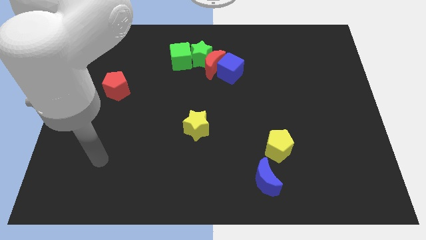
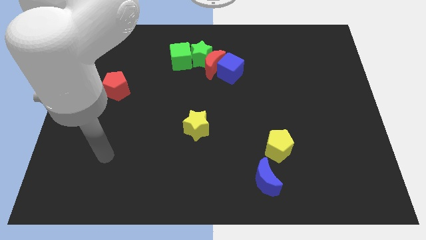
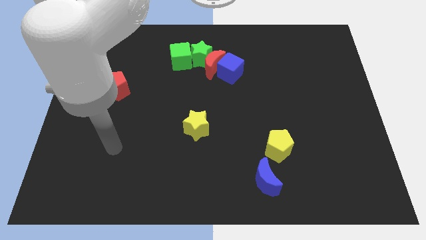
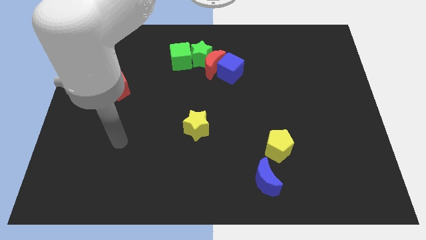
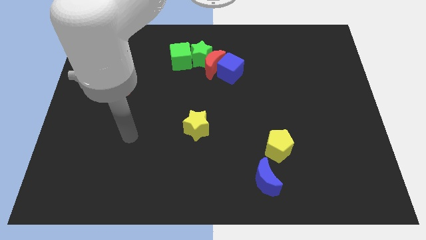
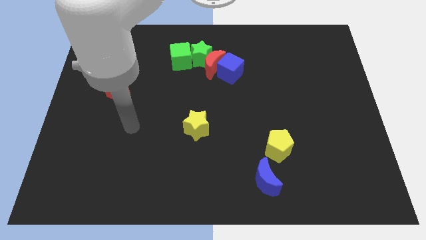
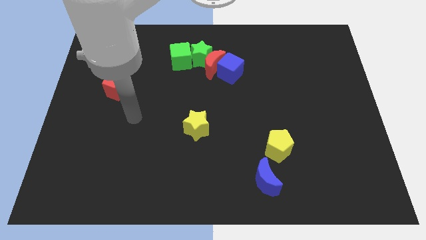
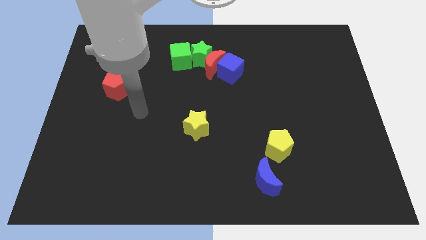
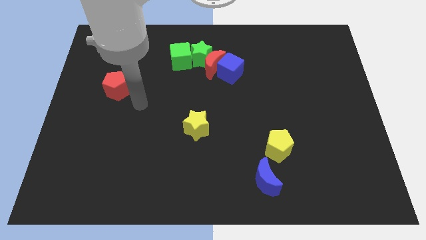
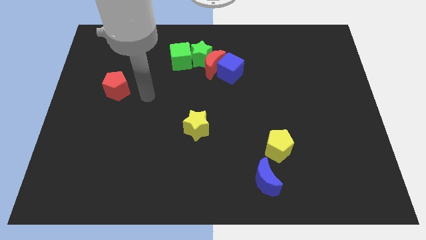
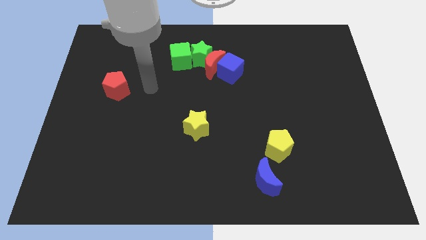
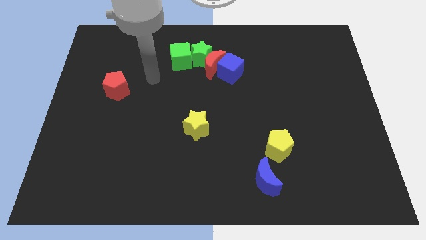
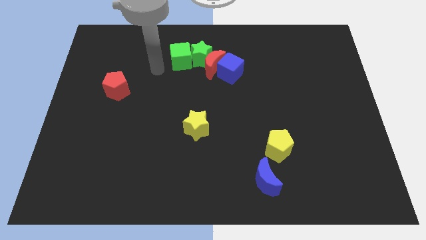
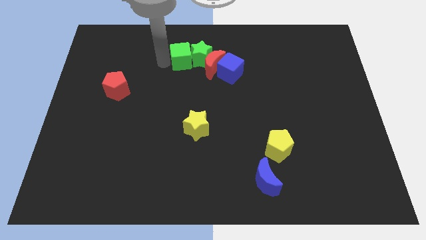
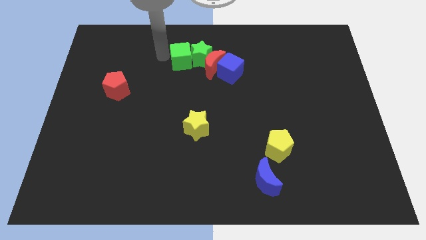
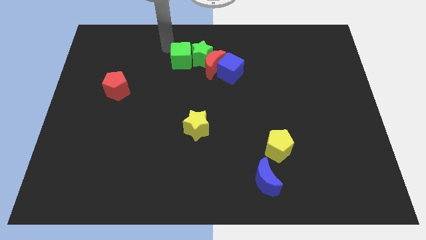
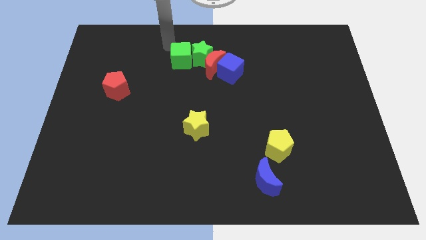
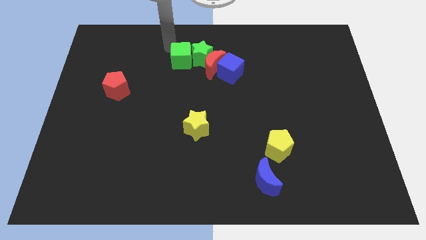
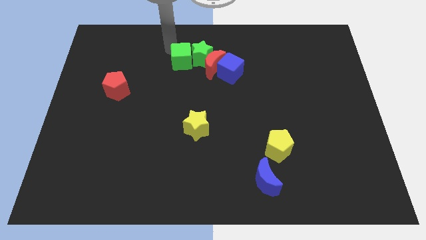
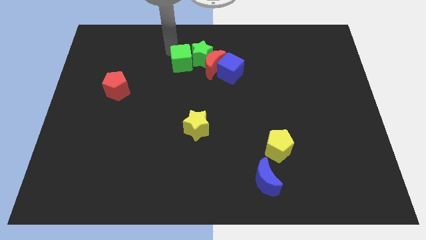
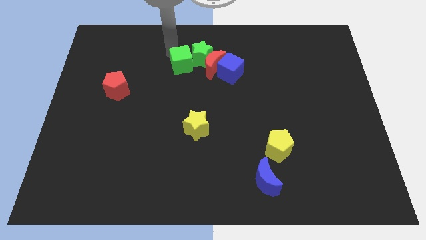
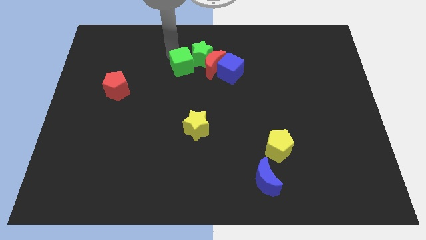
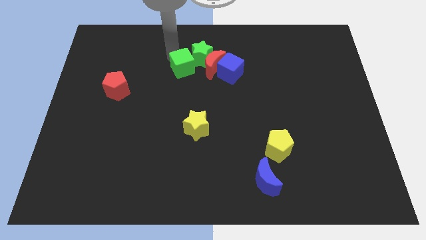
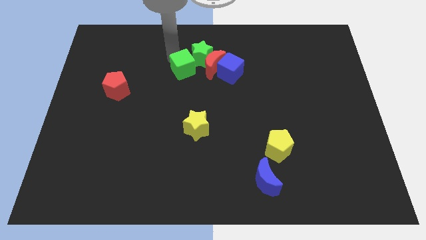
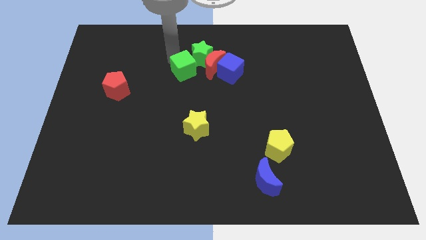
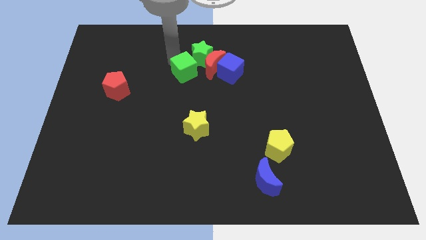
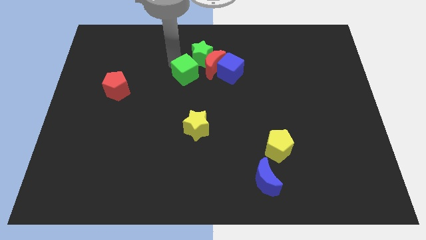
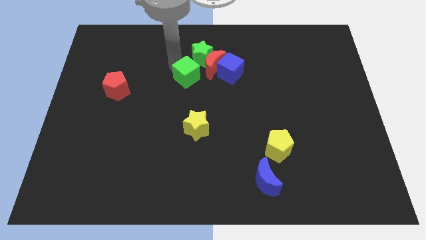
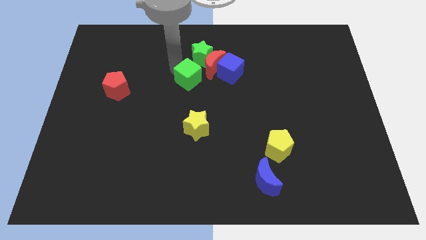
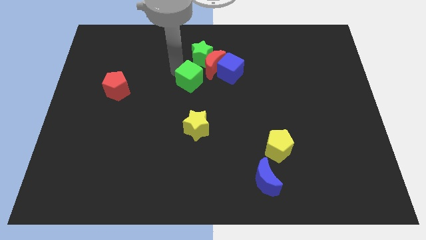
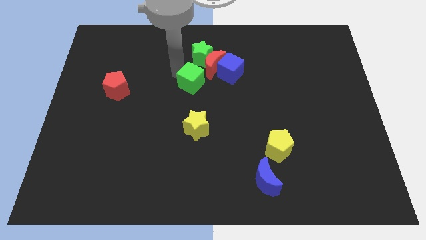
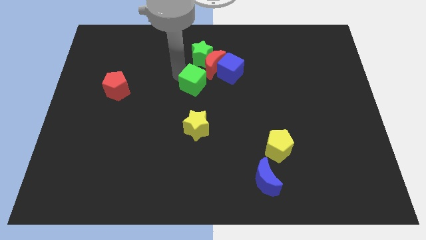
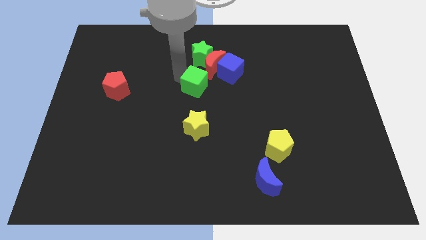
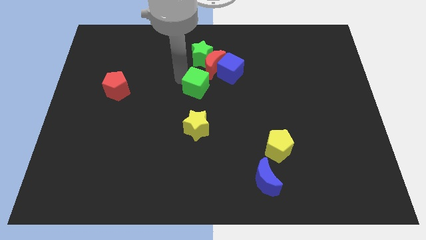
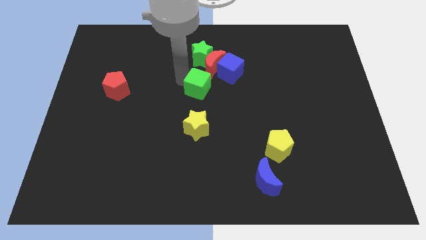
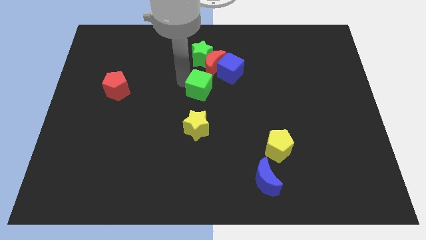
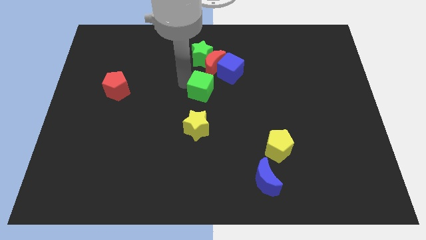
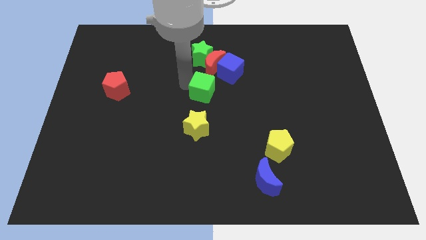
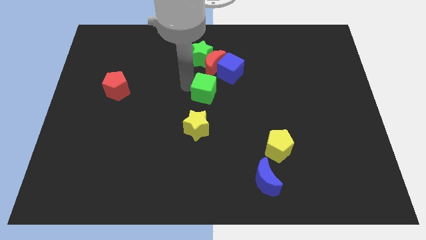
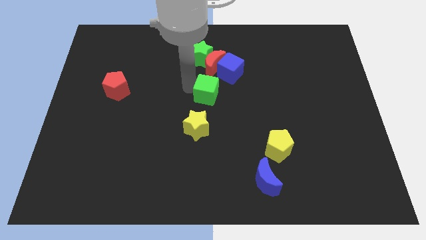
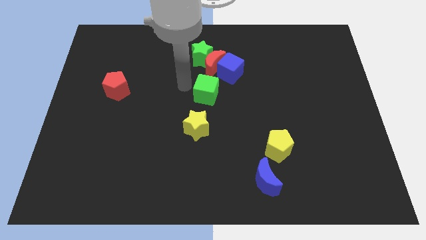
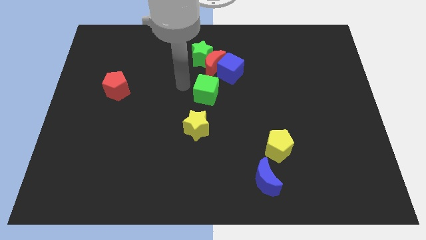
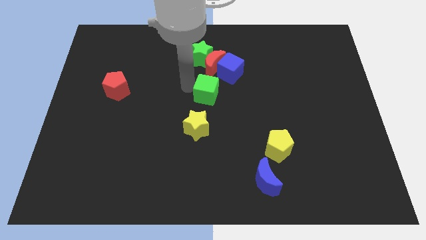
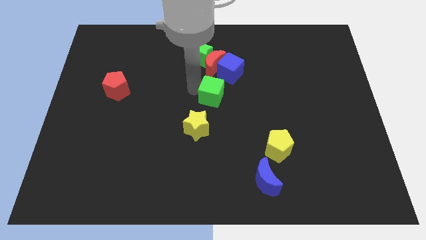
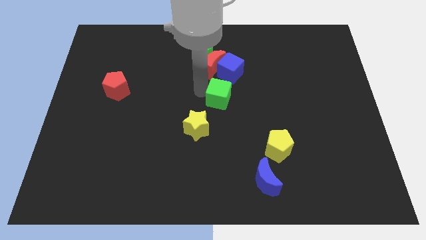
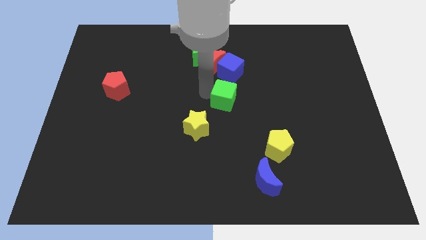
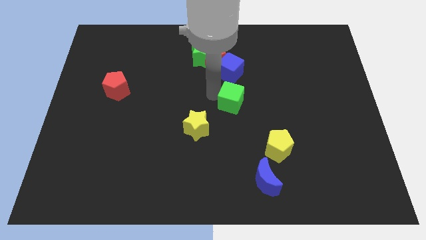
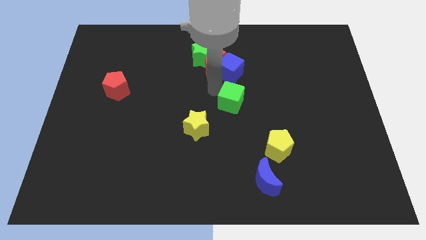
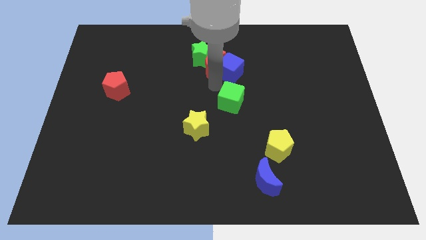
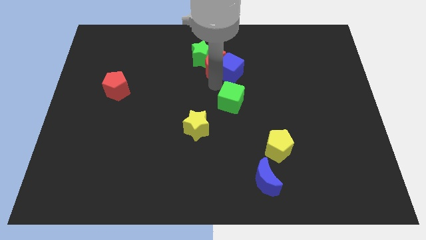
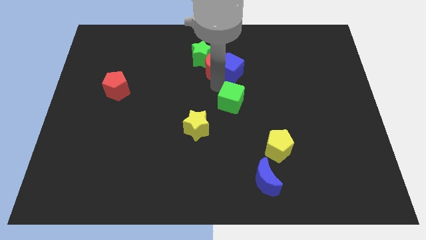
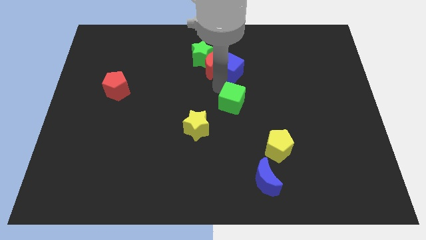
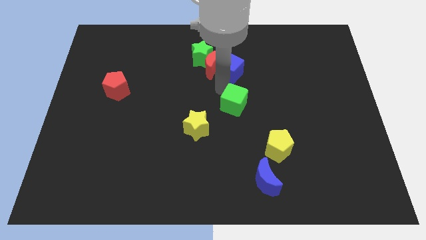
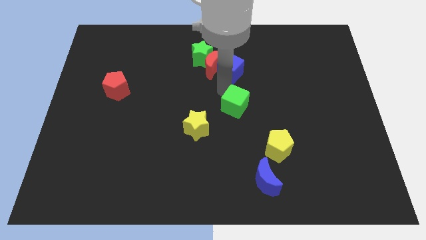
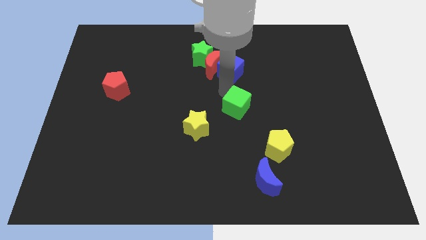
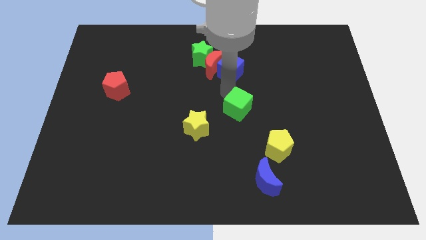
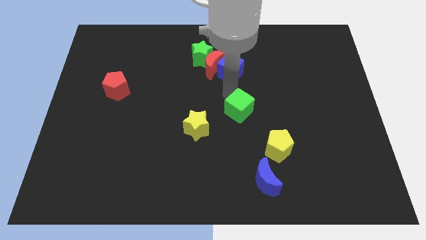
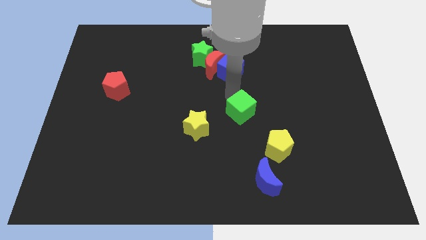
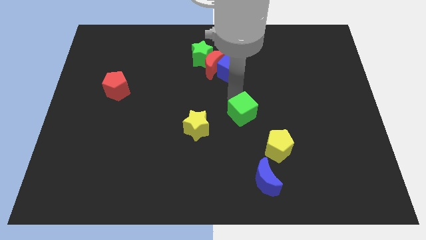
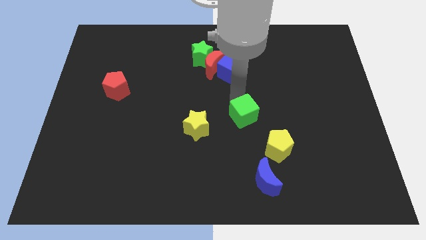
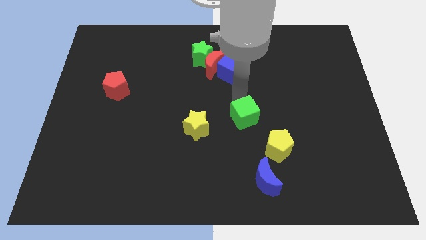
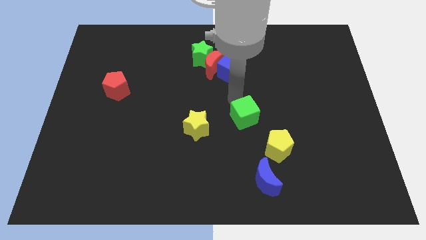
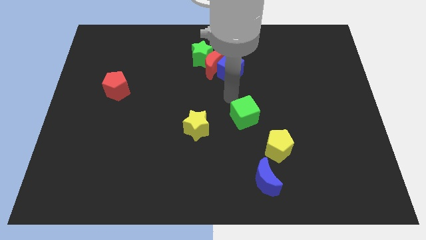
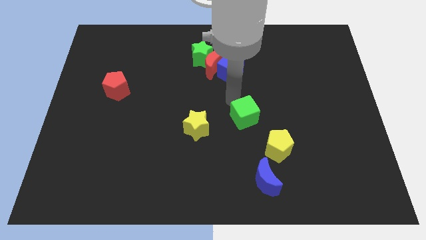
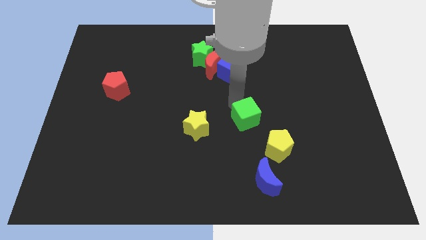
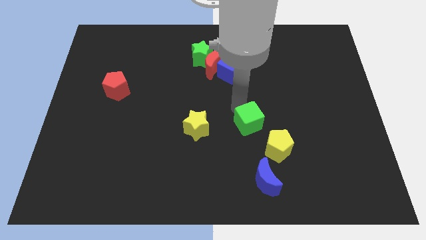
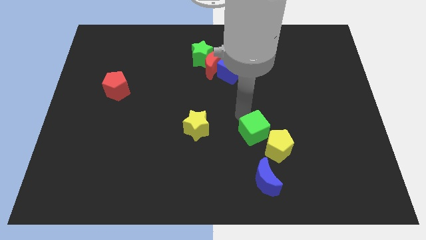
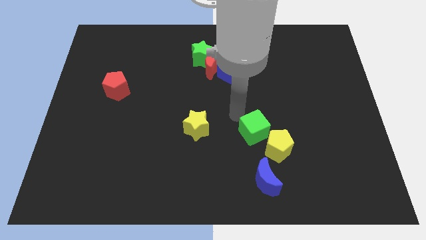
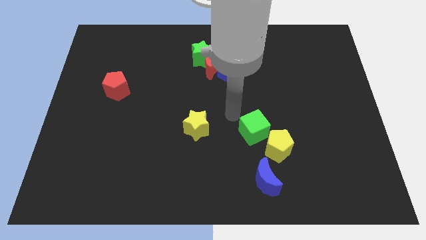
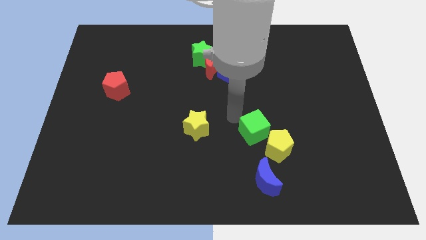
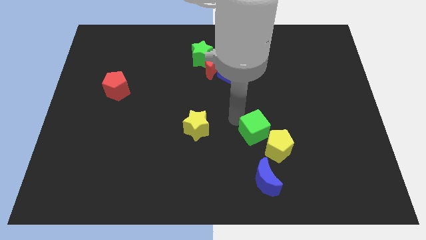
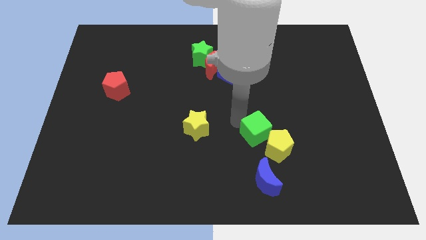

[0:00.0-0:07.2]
put the green cube towards the yellow pentagon

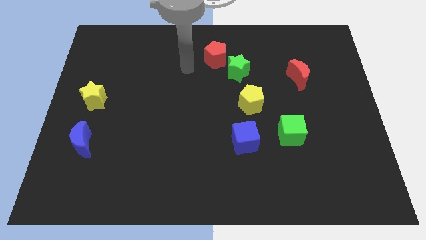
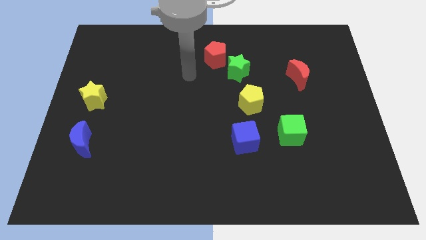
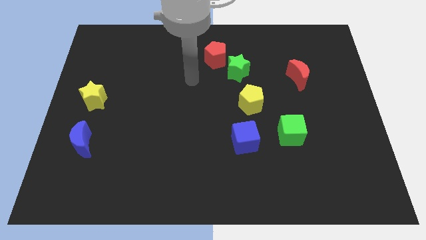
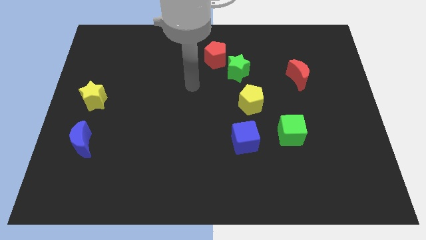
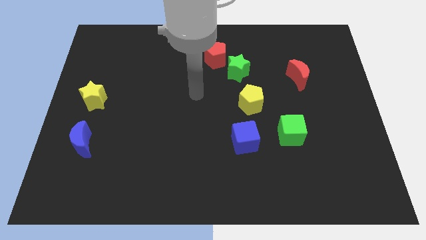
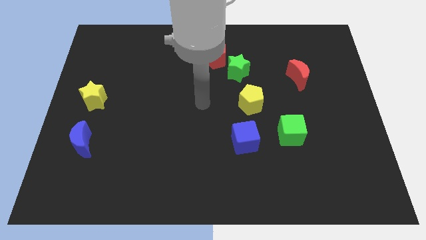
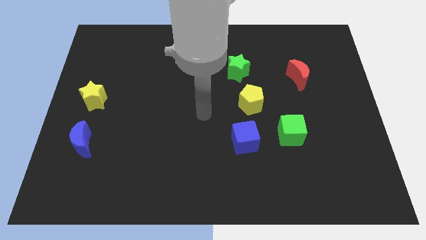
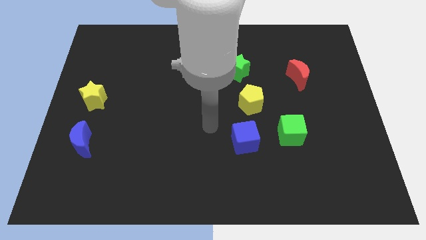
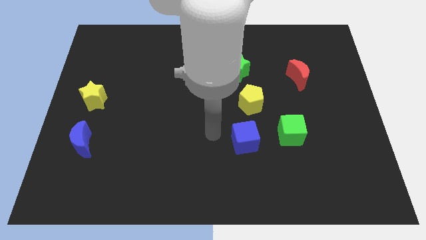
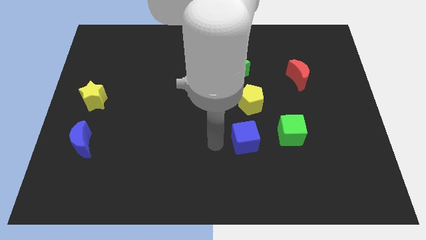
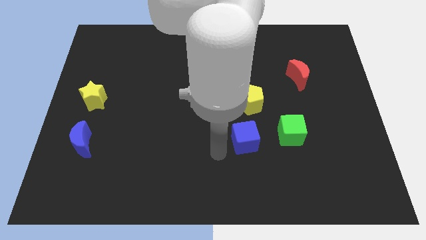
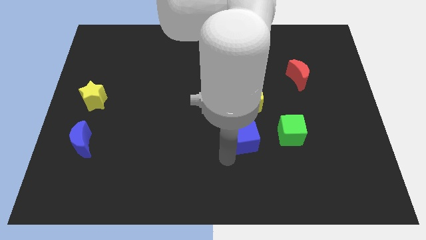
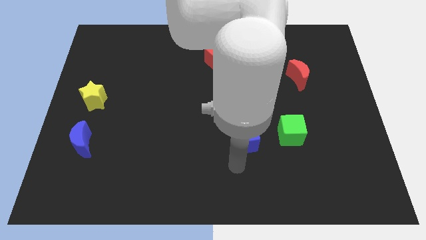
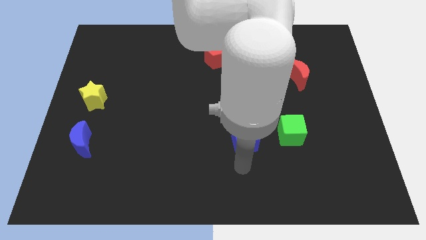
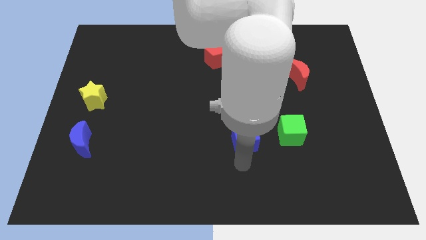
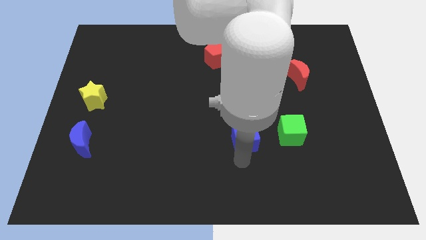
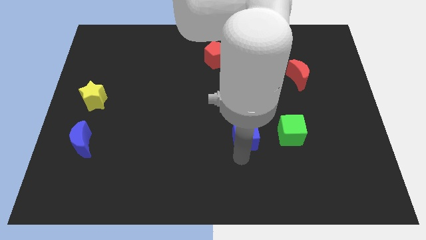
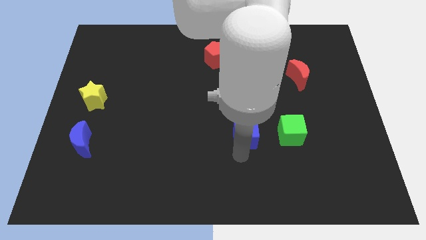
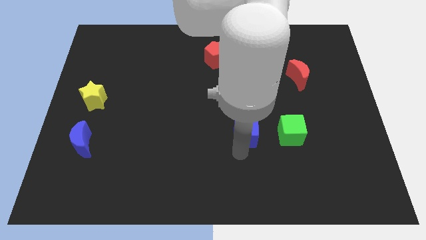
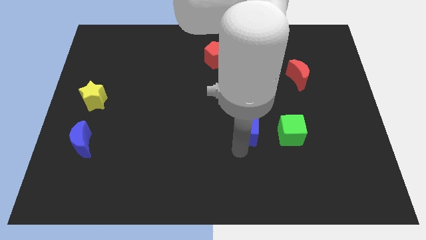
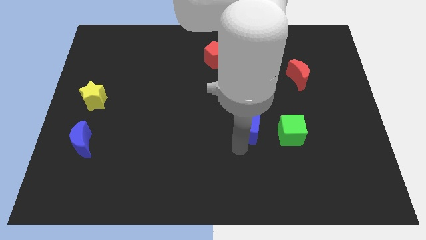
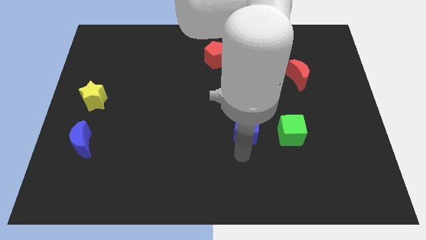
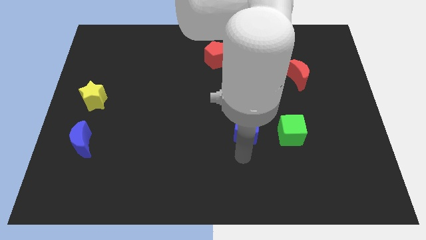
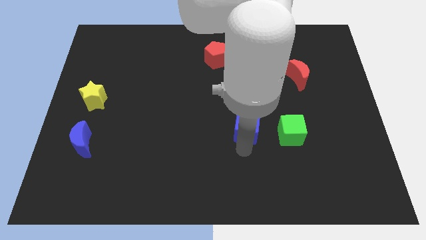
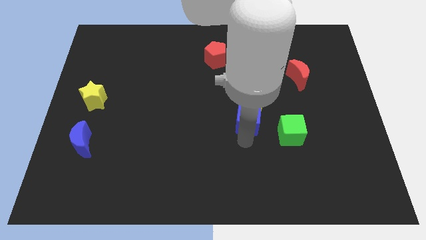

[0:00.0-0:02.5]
slide the blue cube to the yellow pentagon
